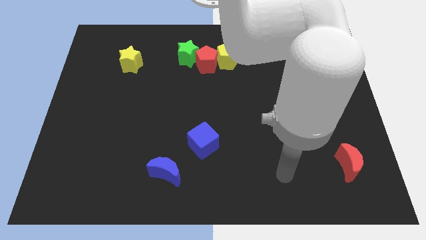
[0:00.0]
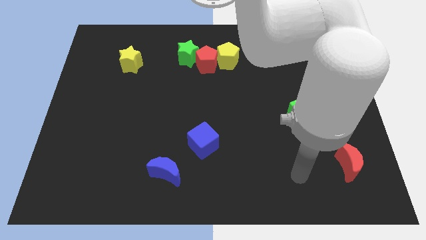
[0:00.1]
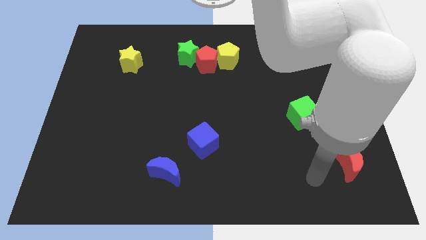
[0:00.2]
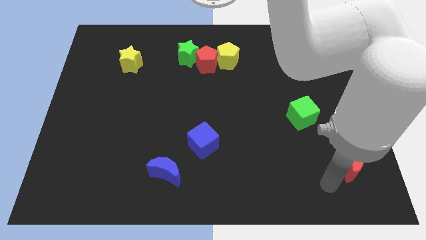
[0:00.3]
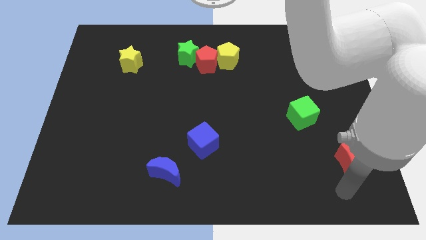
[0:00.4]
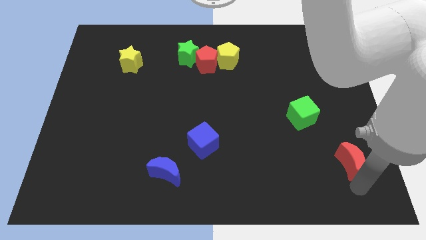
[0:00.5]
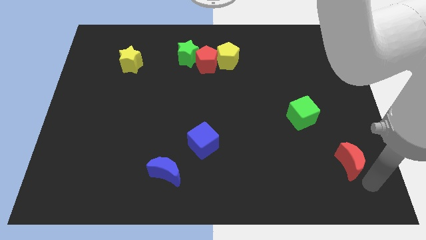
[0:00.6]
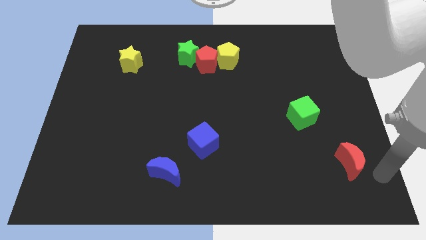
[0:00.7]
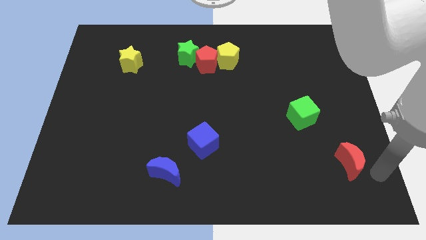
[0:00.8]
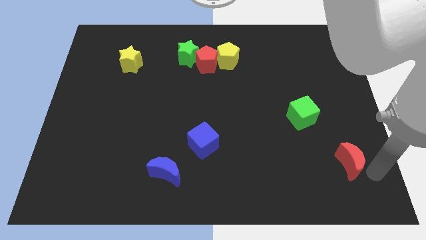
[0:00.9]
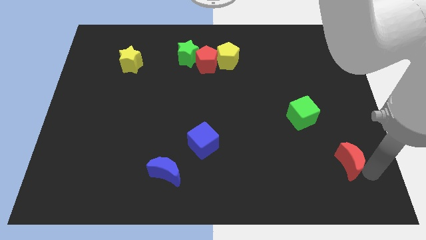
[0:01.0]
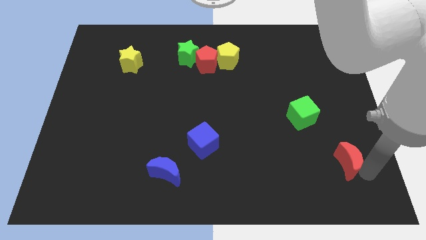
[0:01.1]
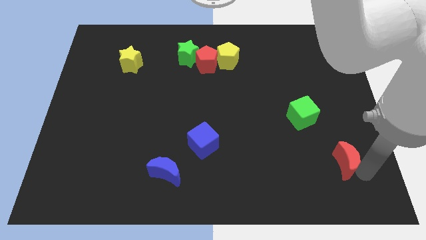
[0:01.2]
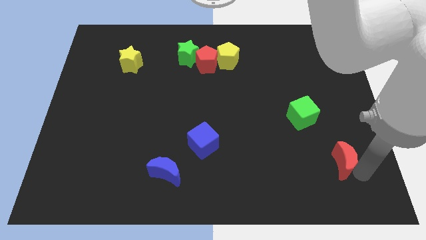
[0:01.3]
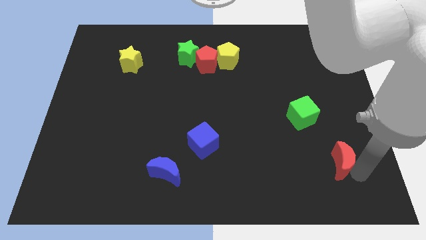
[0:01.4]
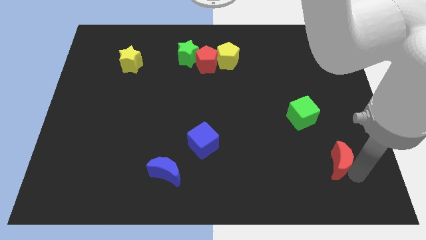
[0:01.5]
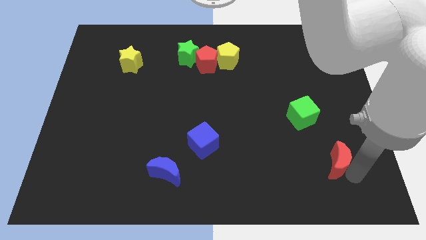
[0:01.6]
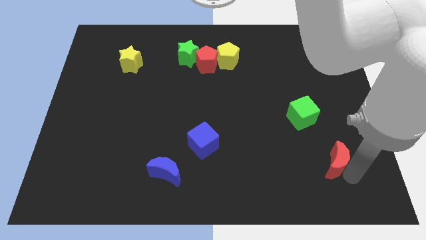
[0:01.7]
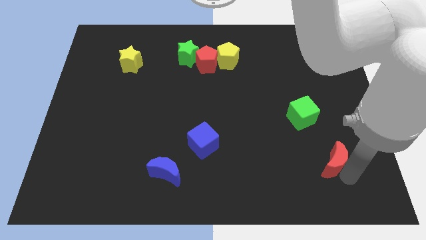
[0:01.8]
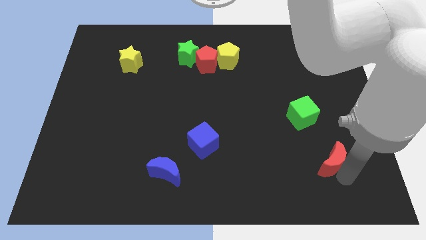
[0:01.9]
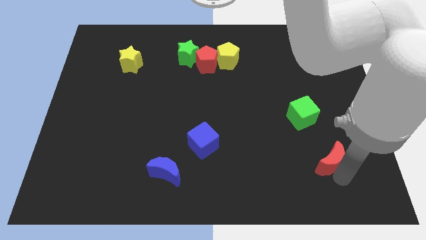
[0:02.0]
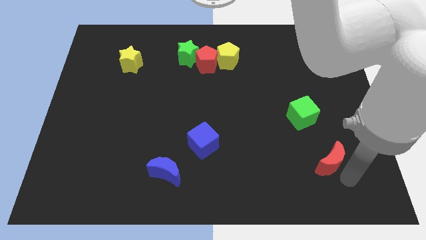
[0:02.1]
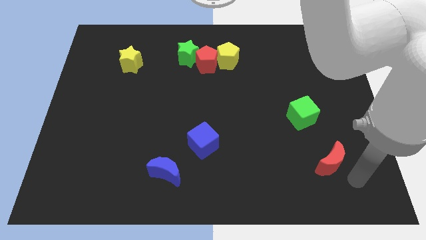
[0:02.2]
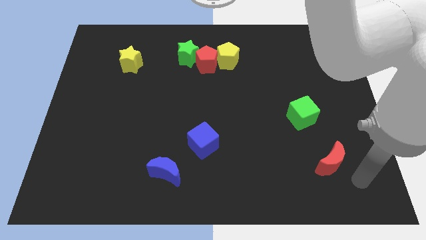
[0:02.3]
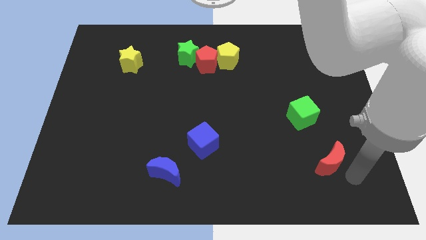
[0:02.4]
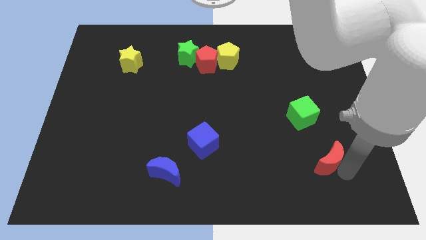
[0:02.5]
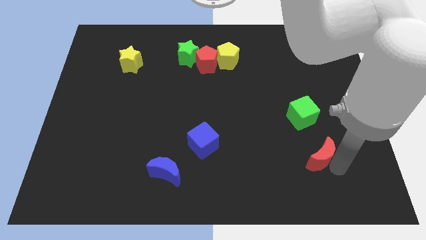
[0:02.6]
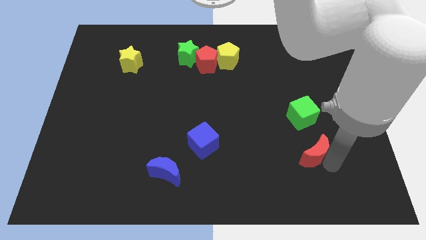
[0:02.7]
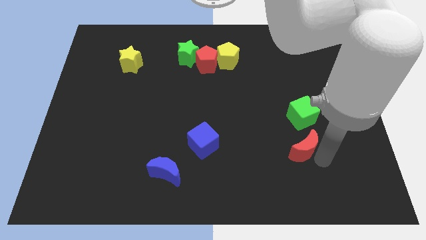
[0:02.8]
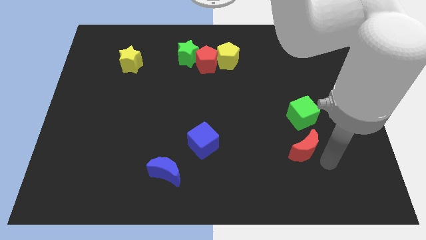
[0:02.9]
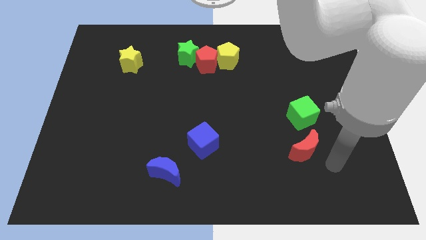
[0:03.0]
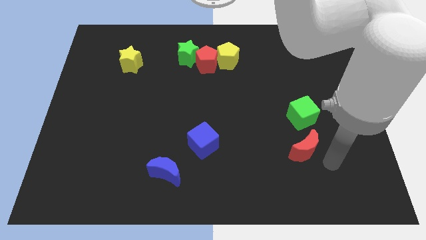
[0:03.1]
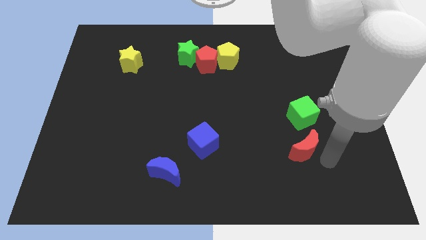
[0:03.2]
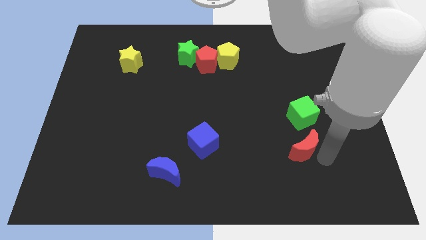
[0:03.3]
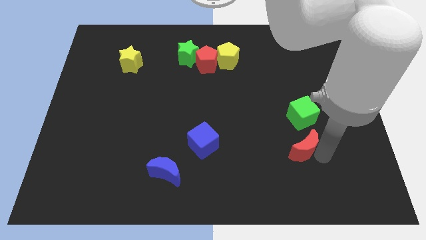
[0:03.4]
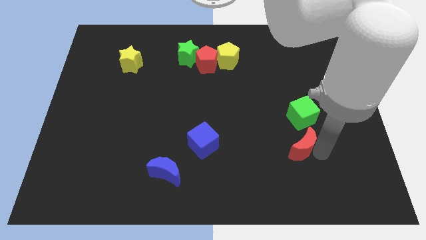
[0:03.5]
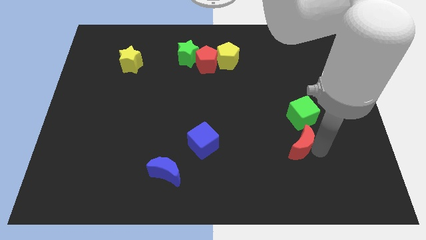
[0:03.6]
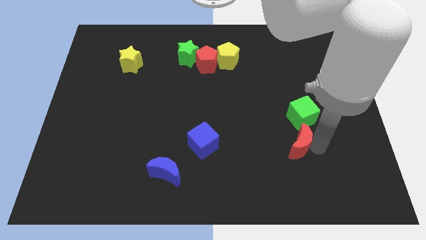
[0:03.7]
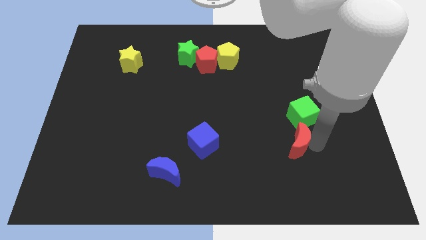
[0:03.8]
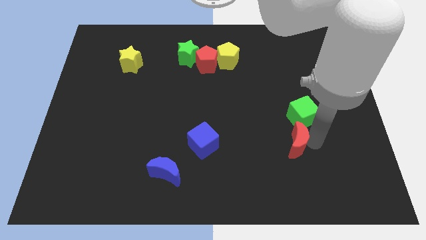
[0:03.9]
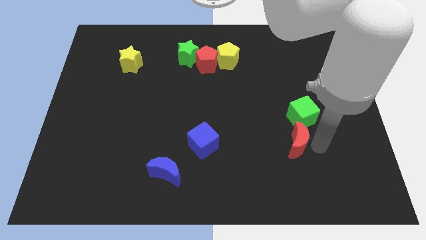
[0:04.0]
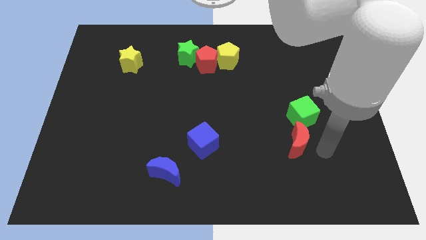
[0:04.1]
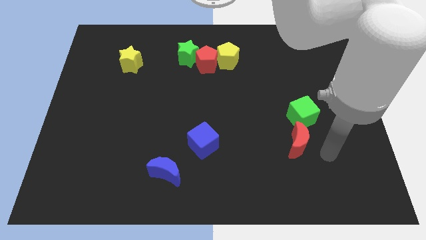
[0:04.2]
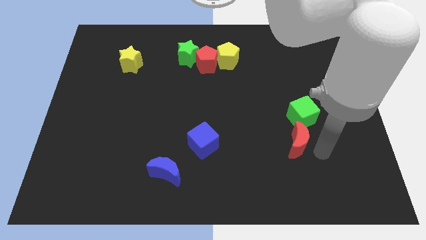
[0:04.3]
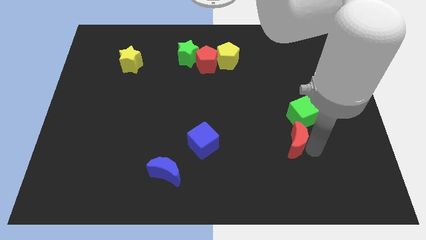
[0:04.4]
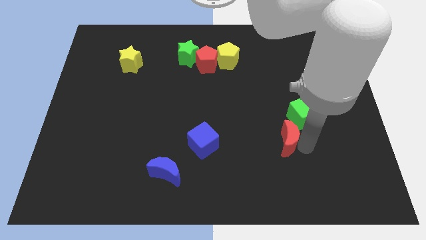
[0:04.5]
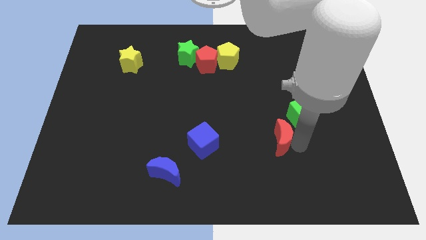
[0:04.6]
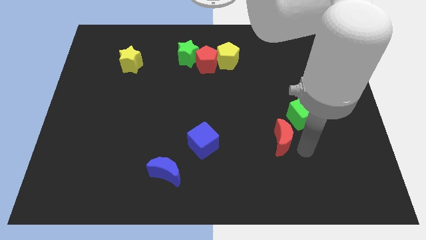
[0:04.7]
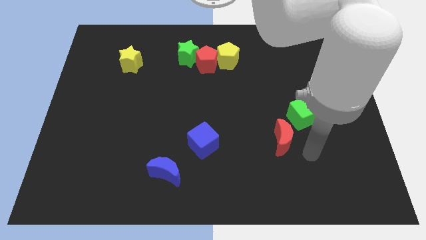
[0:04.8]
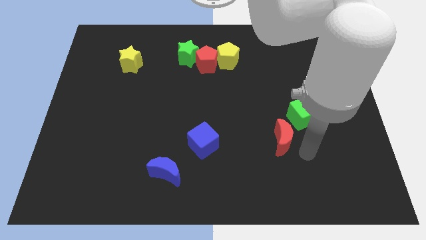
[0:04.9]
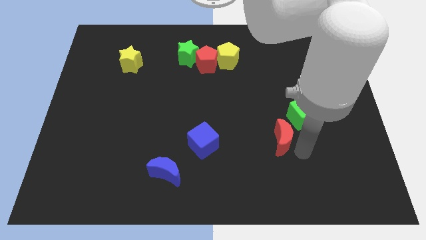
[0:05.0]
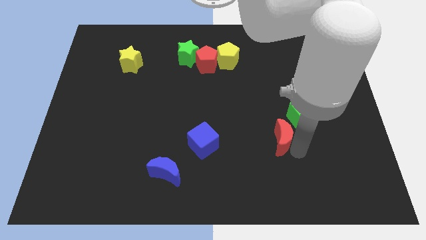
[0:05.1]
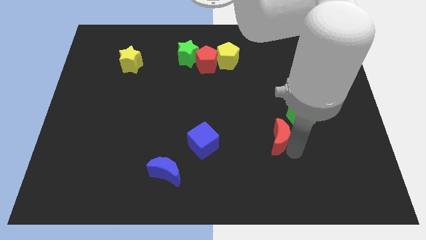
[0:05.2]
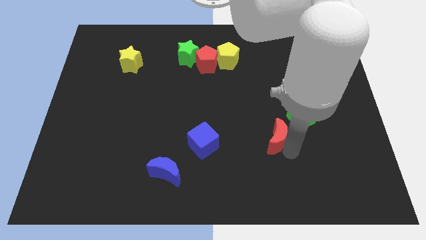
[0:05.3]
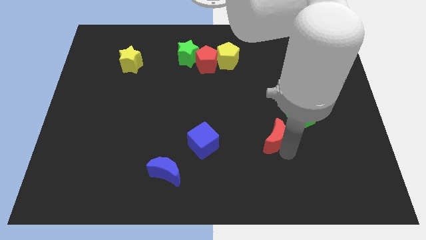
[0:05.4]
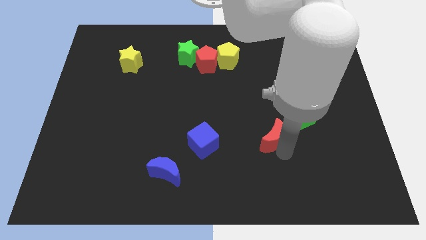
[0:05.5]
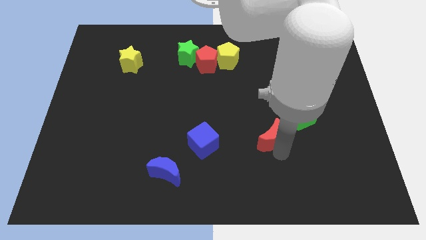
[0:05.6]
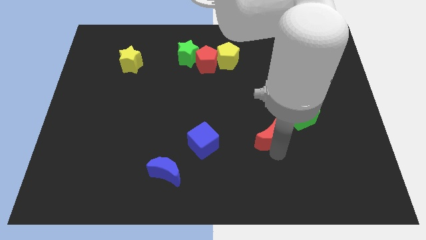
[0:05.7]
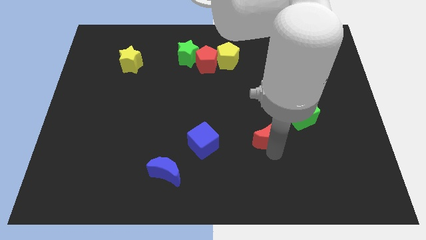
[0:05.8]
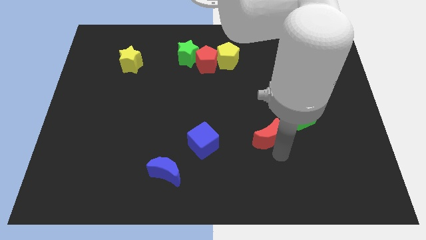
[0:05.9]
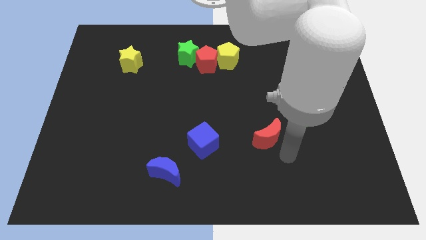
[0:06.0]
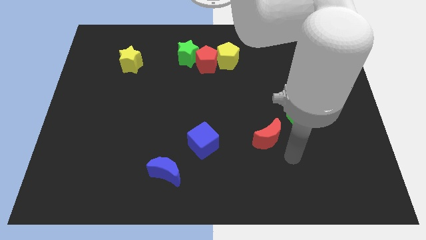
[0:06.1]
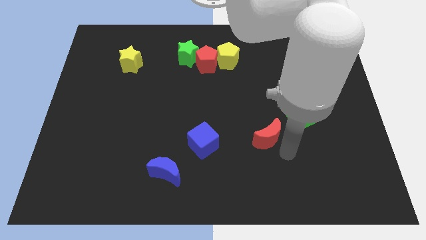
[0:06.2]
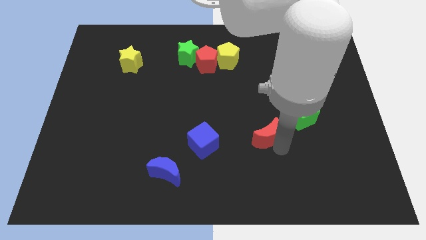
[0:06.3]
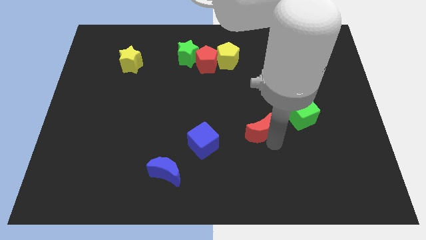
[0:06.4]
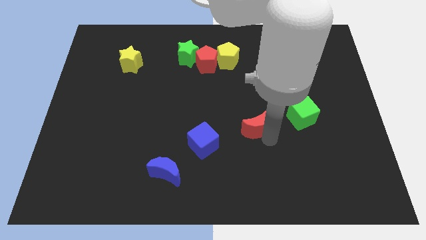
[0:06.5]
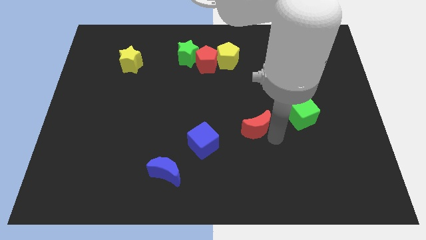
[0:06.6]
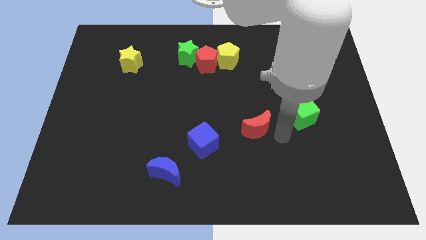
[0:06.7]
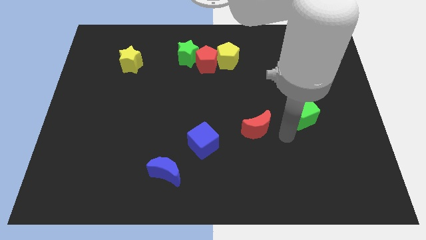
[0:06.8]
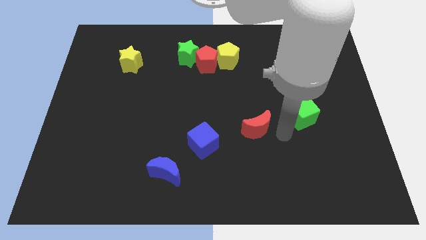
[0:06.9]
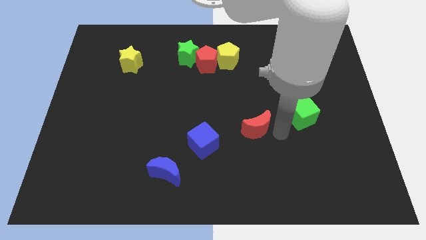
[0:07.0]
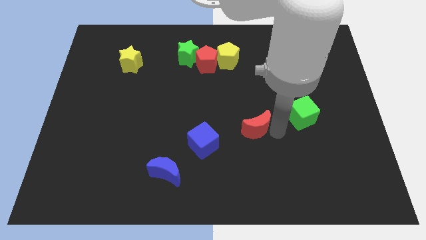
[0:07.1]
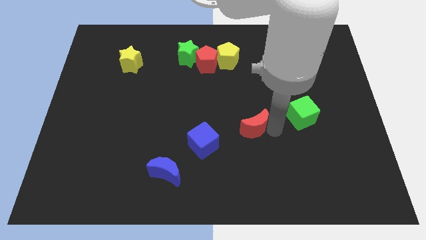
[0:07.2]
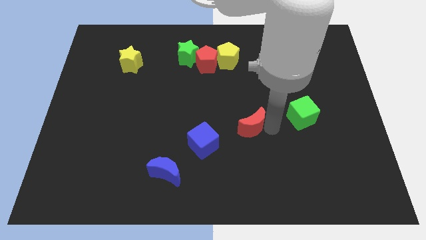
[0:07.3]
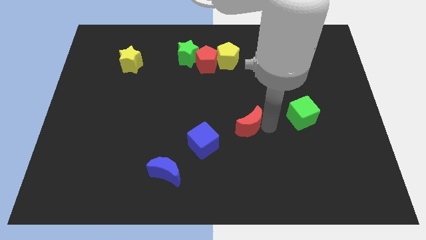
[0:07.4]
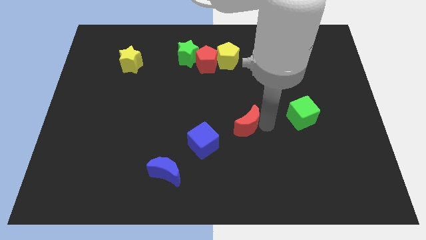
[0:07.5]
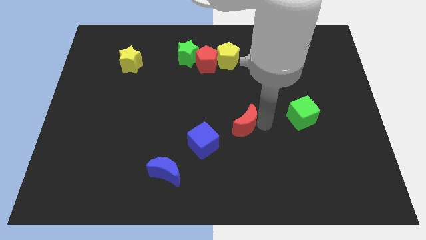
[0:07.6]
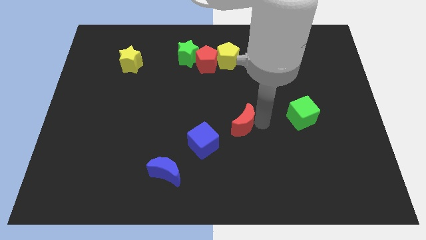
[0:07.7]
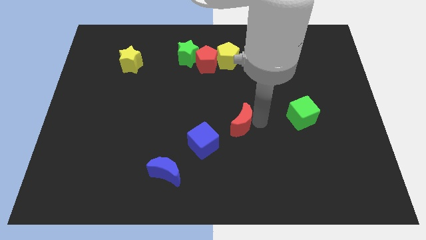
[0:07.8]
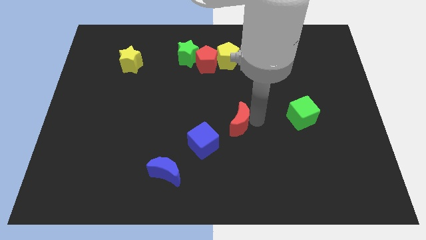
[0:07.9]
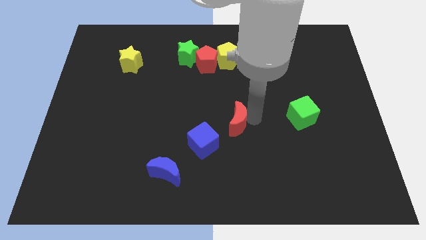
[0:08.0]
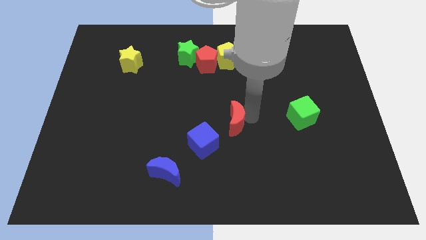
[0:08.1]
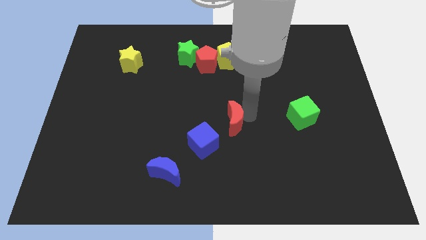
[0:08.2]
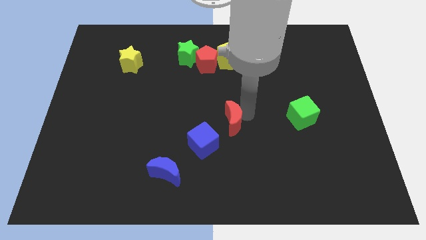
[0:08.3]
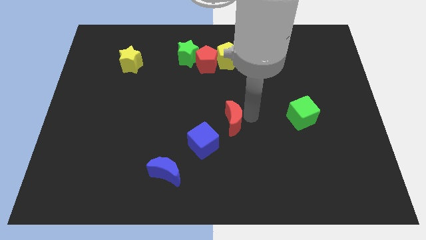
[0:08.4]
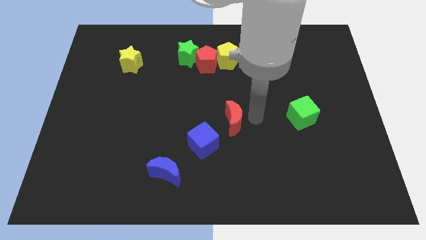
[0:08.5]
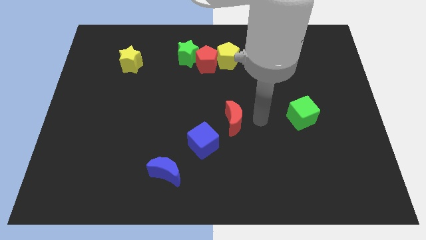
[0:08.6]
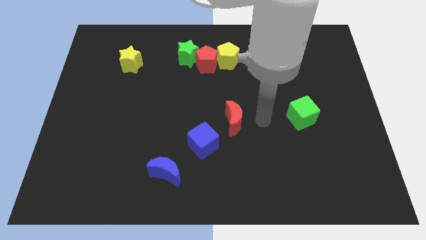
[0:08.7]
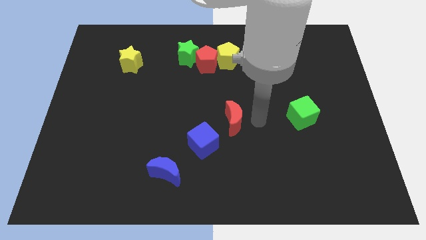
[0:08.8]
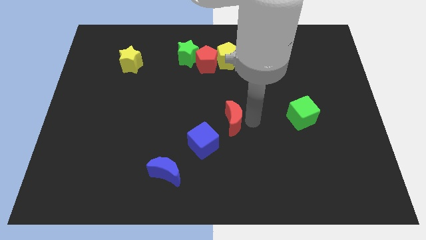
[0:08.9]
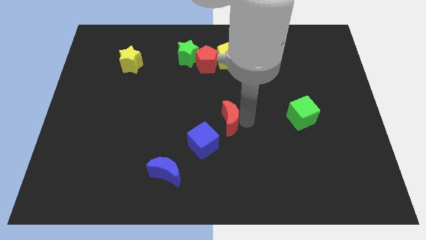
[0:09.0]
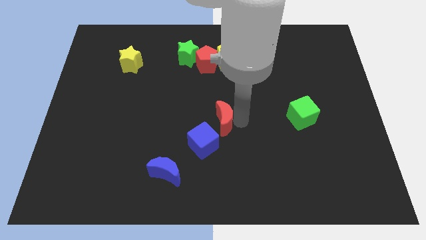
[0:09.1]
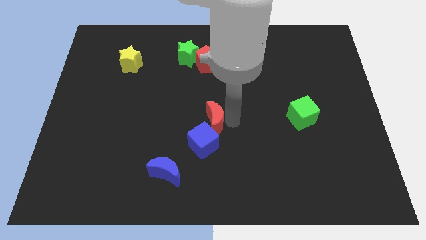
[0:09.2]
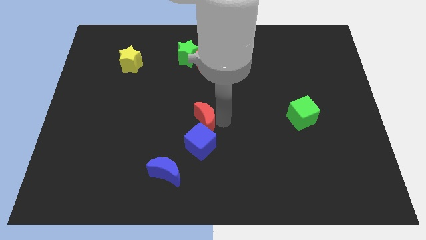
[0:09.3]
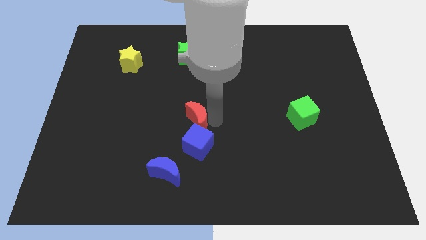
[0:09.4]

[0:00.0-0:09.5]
push the red moon to the top left of the blue cube
